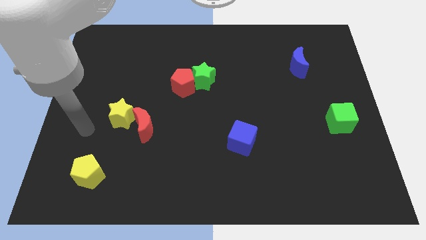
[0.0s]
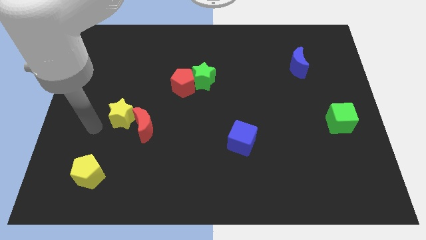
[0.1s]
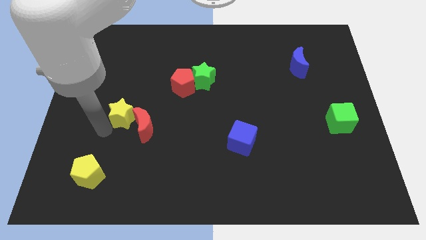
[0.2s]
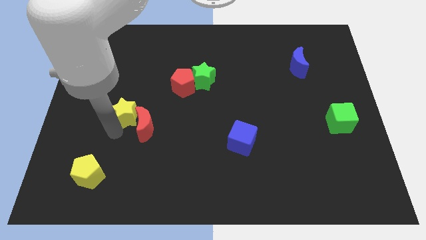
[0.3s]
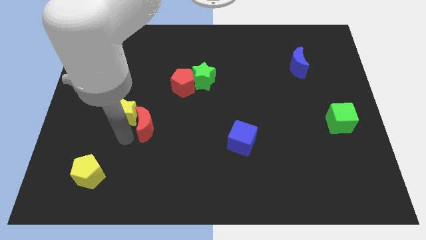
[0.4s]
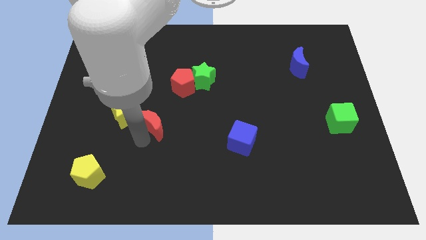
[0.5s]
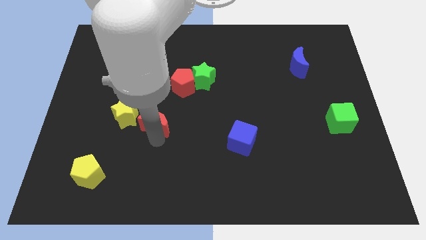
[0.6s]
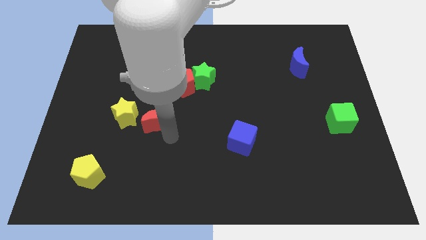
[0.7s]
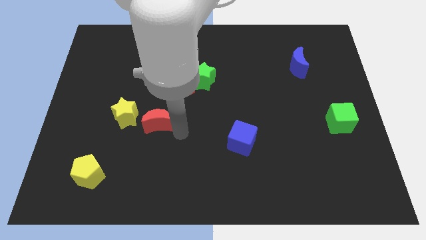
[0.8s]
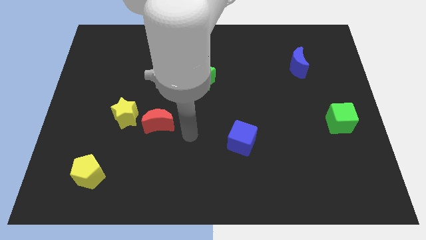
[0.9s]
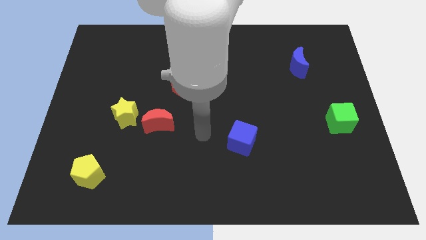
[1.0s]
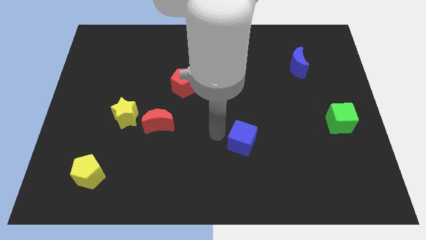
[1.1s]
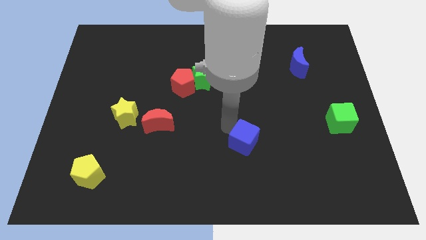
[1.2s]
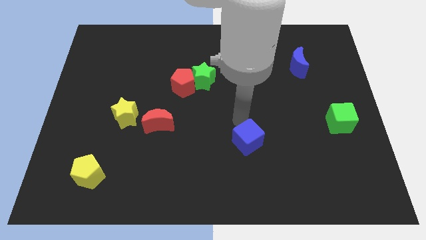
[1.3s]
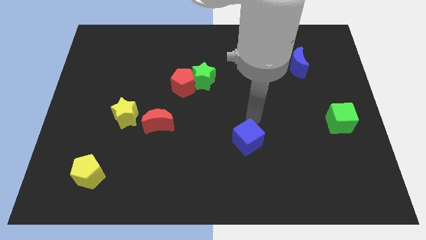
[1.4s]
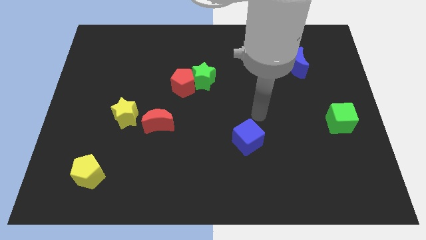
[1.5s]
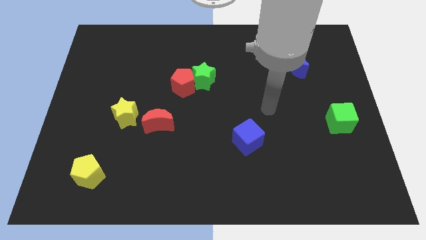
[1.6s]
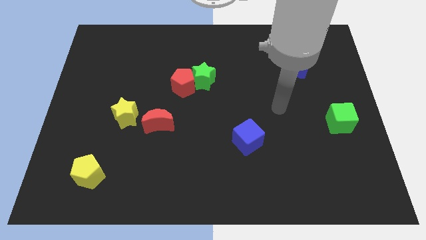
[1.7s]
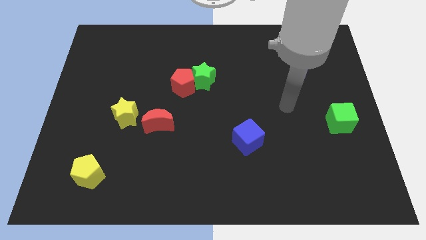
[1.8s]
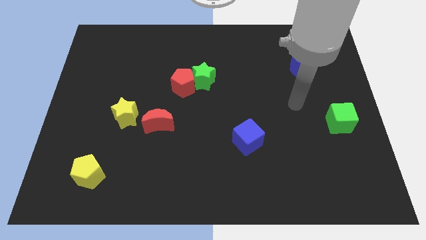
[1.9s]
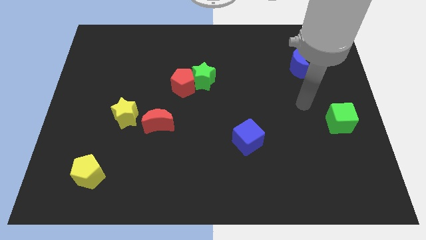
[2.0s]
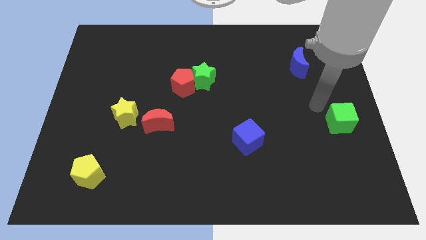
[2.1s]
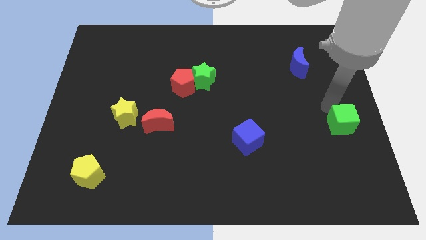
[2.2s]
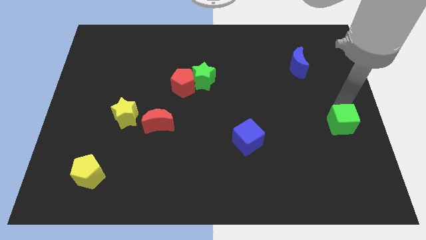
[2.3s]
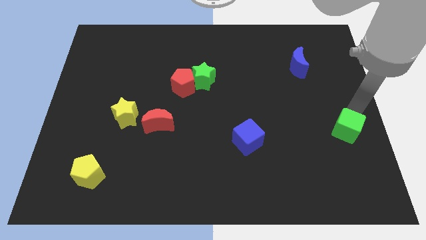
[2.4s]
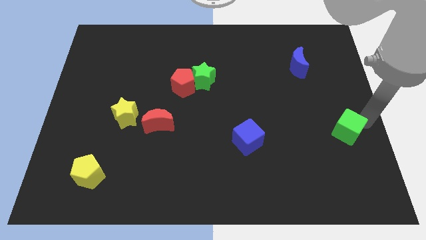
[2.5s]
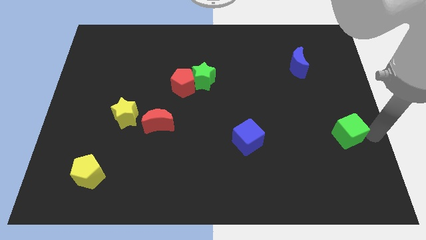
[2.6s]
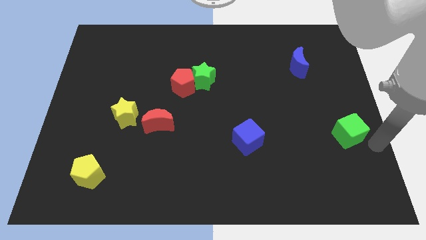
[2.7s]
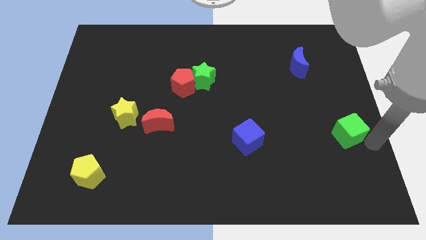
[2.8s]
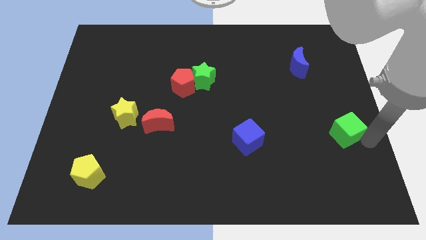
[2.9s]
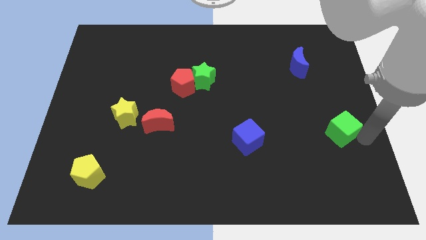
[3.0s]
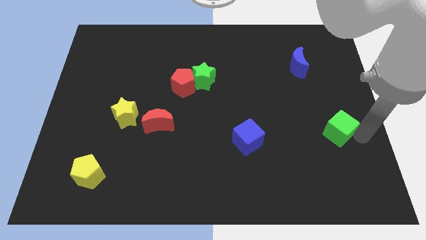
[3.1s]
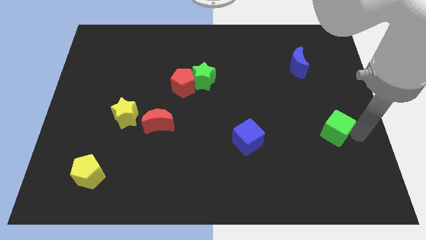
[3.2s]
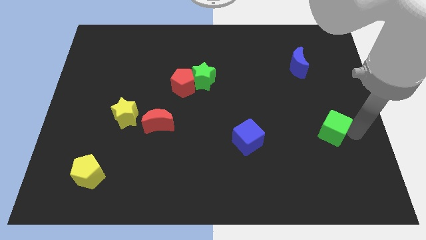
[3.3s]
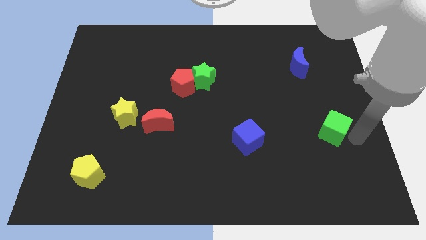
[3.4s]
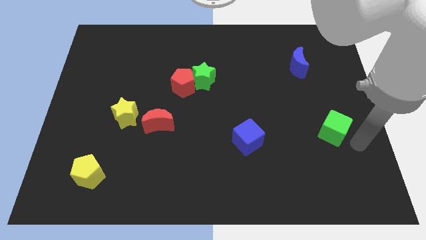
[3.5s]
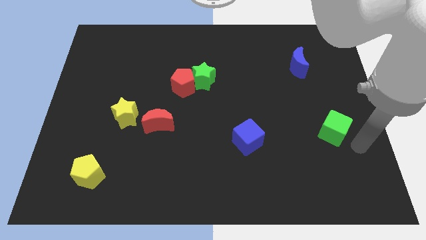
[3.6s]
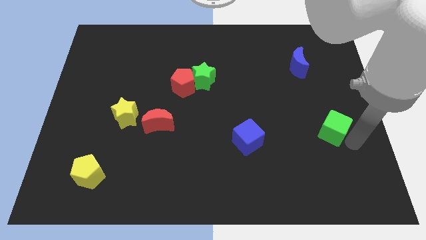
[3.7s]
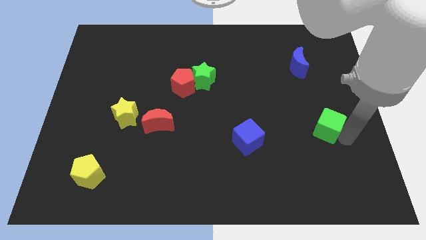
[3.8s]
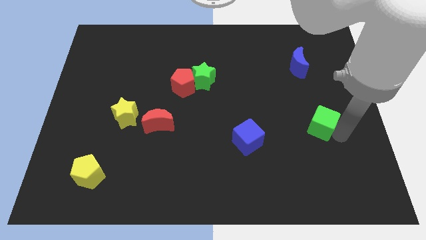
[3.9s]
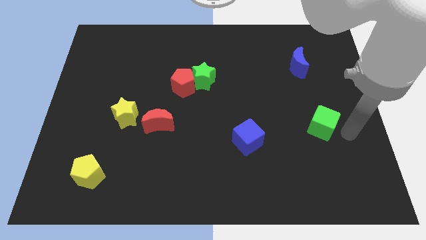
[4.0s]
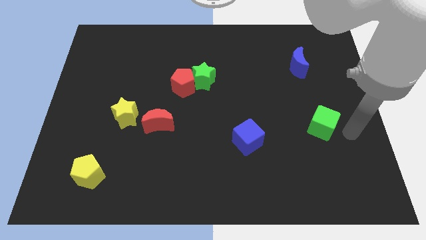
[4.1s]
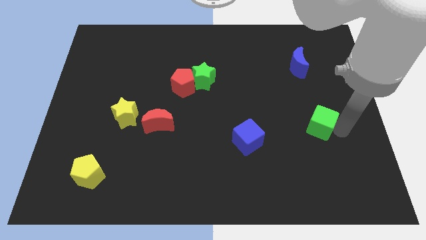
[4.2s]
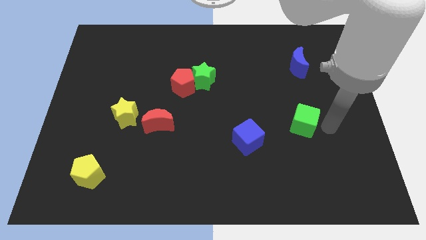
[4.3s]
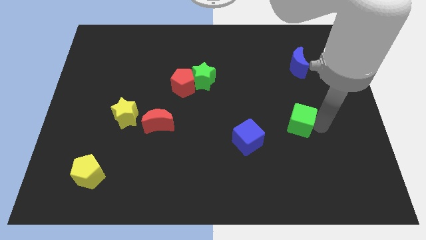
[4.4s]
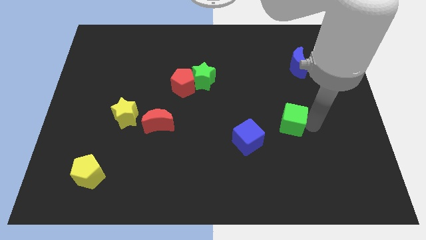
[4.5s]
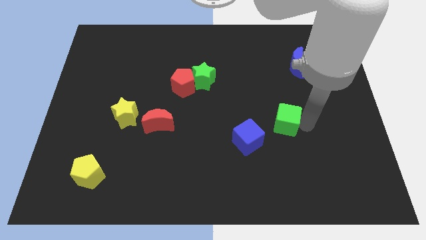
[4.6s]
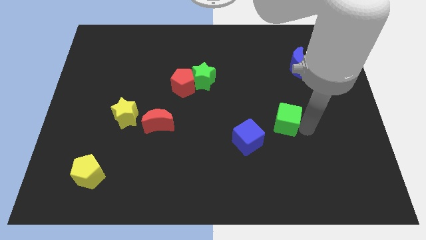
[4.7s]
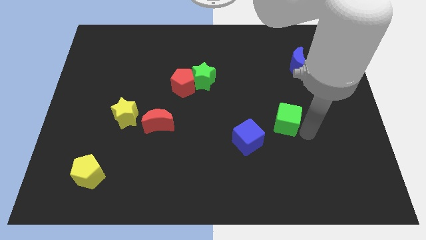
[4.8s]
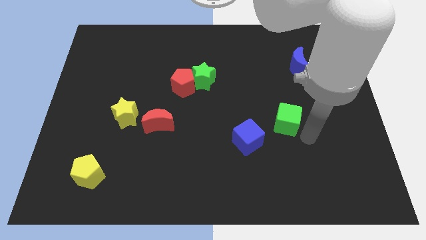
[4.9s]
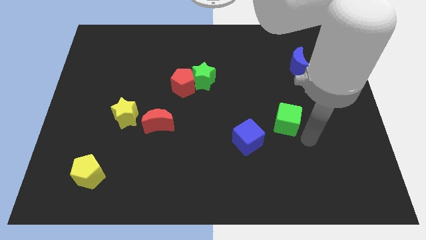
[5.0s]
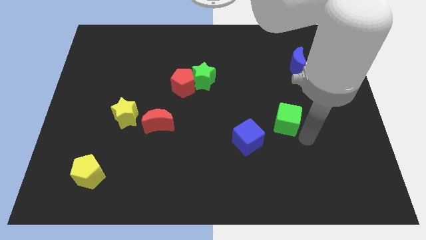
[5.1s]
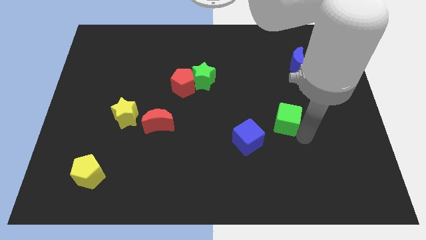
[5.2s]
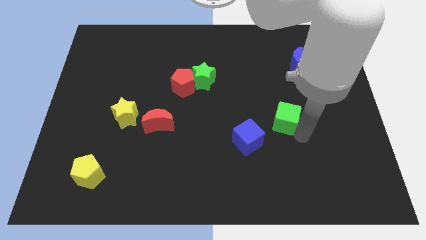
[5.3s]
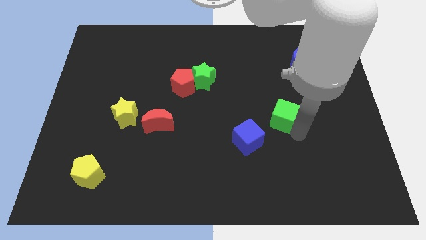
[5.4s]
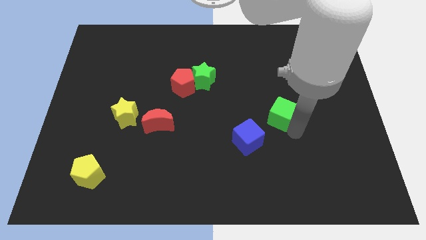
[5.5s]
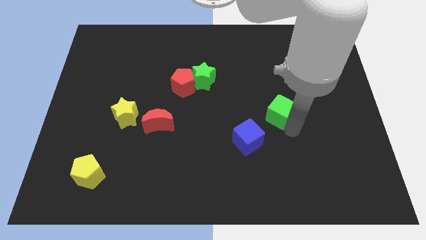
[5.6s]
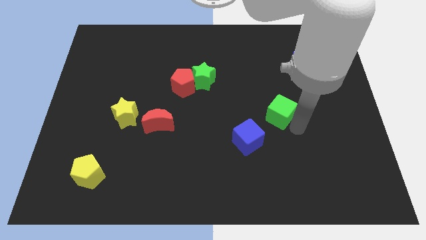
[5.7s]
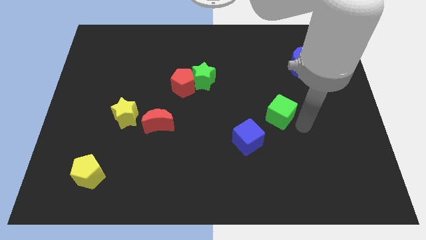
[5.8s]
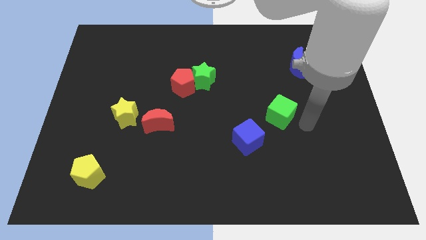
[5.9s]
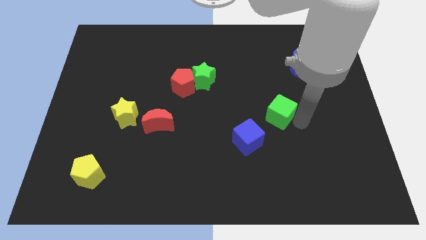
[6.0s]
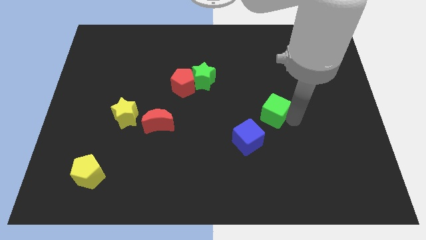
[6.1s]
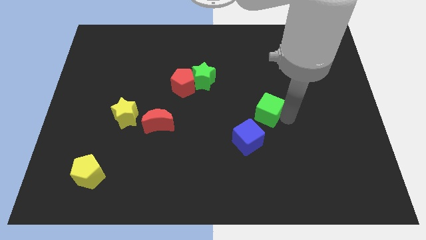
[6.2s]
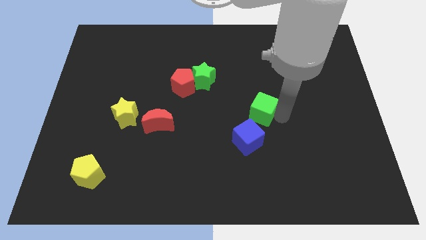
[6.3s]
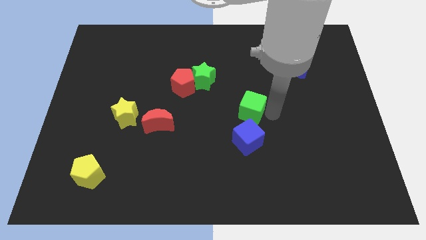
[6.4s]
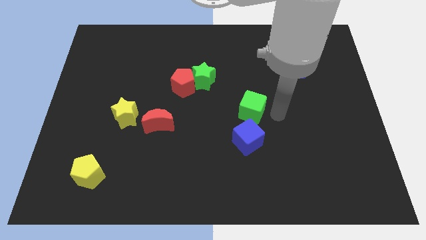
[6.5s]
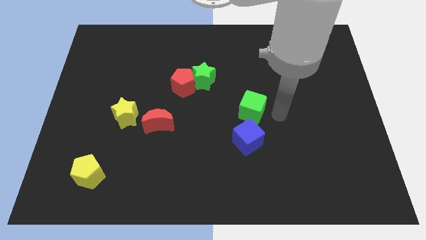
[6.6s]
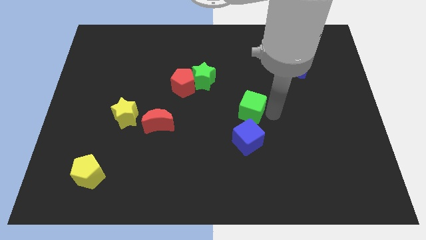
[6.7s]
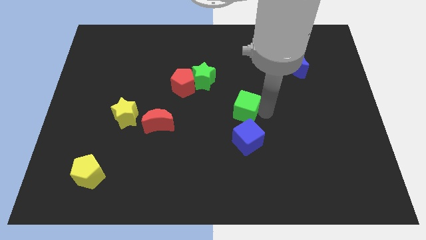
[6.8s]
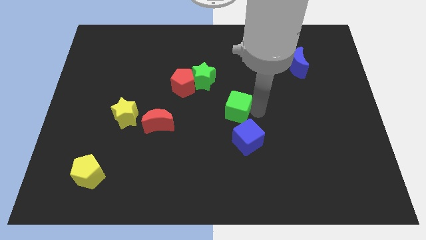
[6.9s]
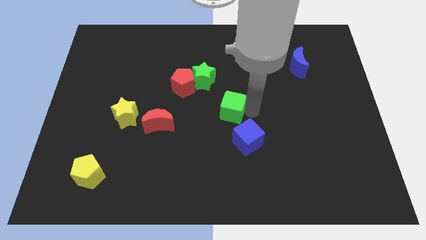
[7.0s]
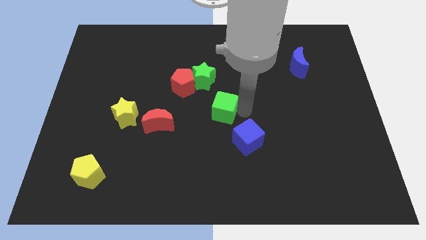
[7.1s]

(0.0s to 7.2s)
push the green cube diagonally down and to the right of the red pentagon

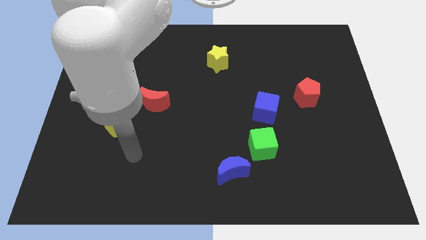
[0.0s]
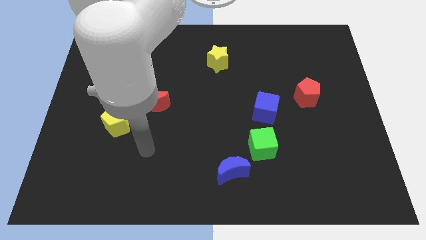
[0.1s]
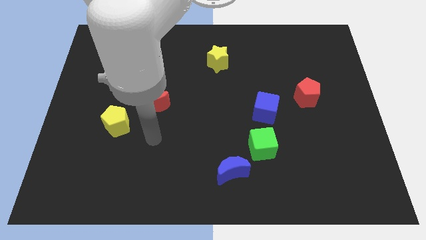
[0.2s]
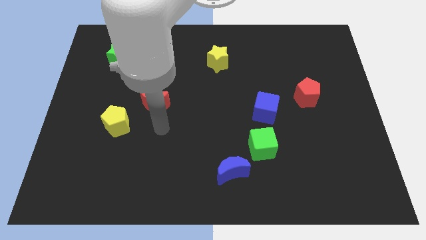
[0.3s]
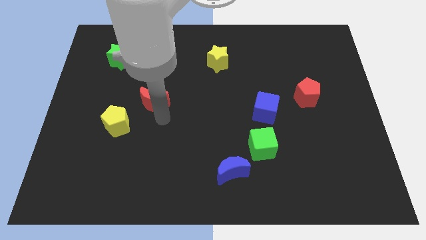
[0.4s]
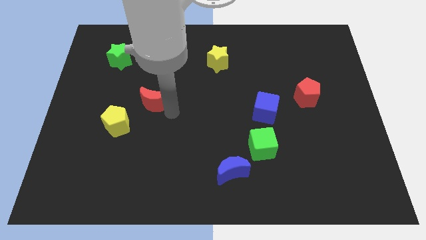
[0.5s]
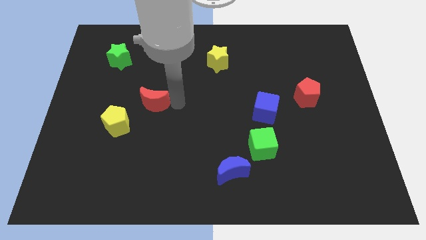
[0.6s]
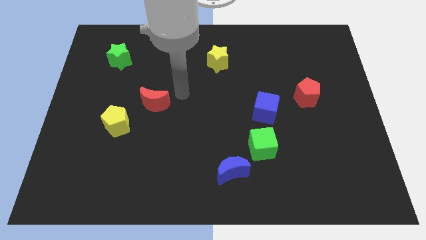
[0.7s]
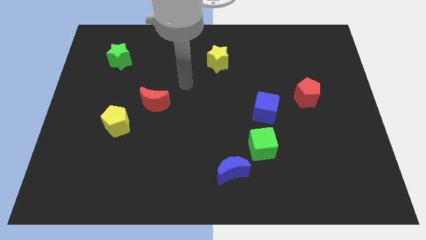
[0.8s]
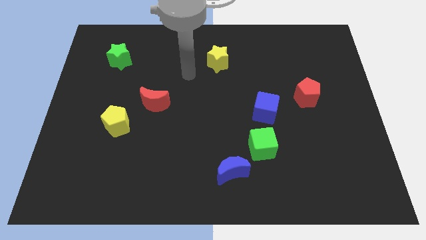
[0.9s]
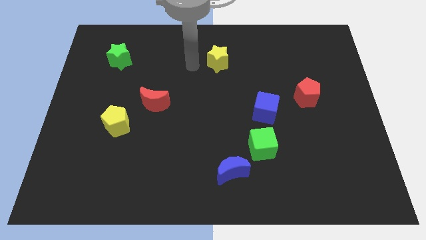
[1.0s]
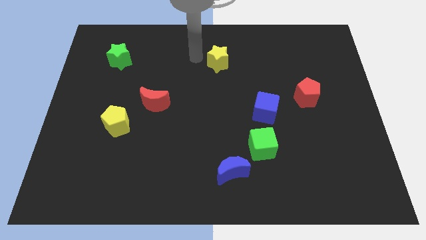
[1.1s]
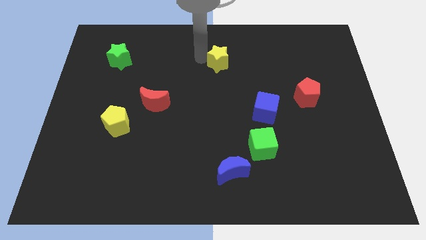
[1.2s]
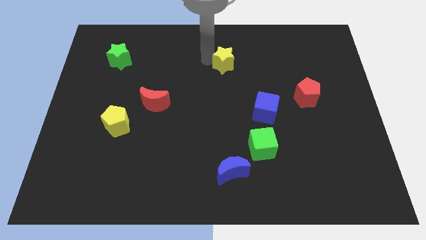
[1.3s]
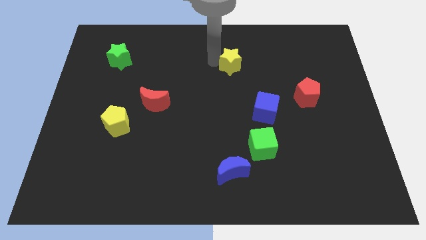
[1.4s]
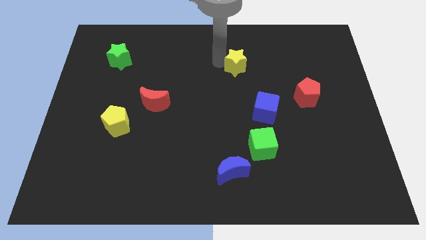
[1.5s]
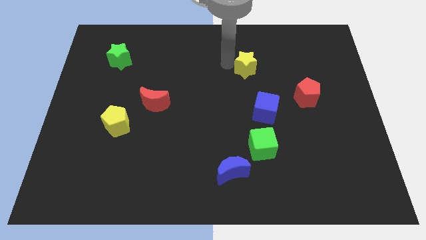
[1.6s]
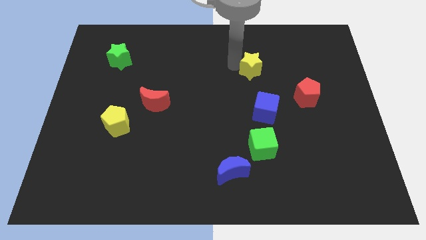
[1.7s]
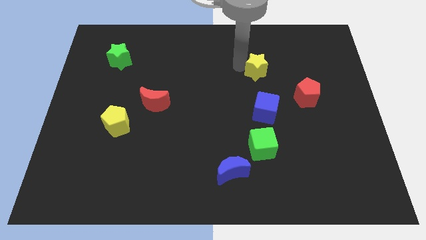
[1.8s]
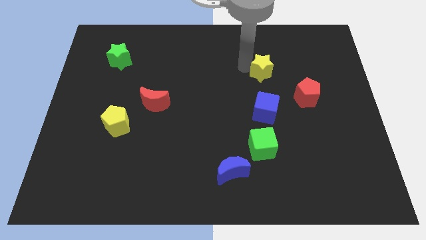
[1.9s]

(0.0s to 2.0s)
put the yellow star diagonally up and to the left of the red pentagon
